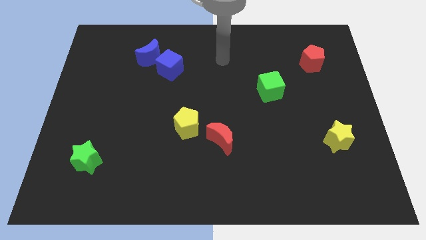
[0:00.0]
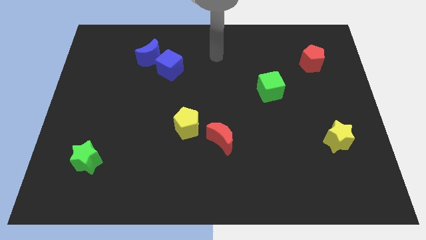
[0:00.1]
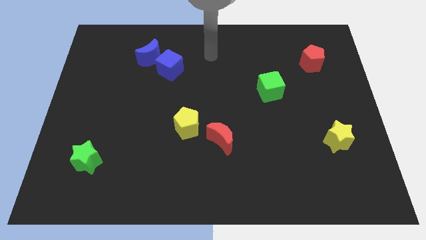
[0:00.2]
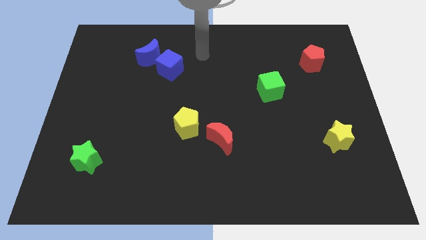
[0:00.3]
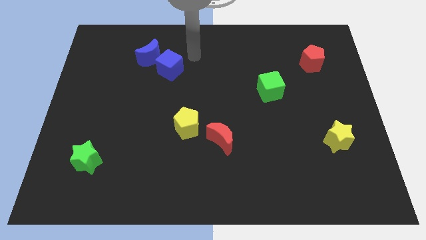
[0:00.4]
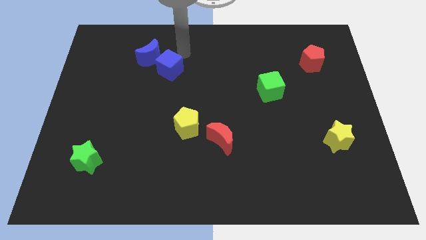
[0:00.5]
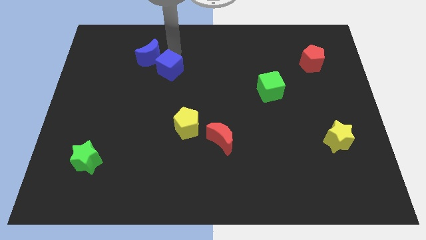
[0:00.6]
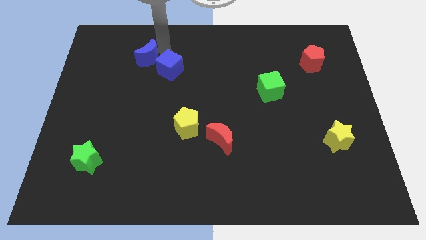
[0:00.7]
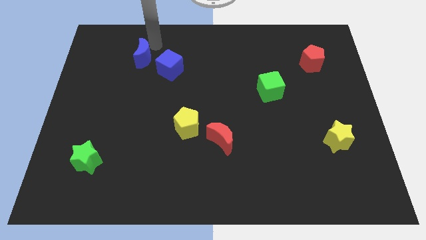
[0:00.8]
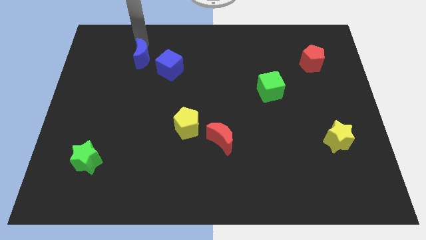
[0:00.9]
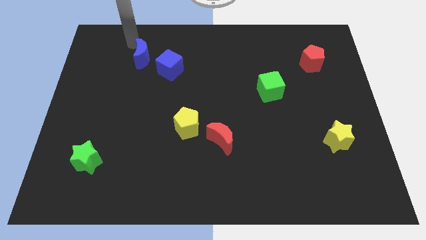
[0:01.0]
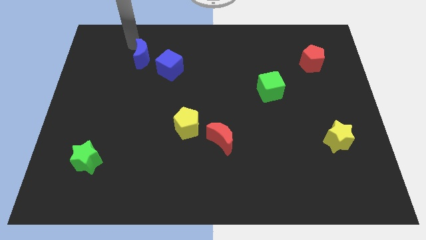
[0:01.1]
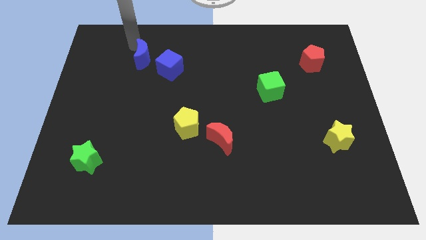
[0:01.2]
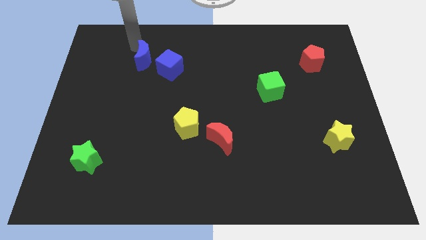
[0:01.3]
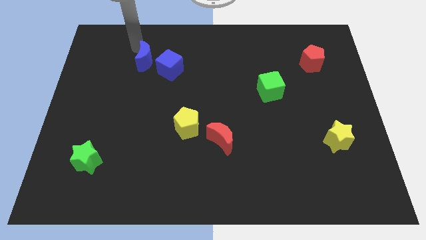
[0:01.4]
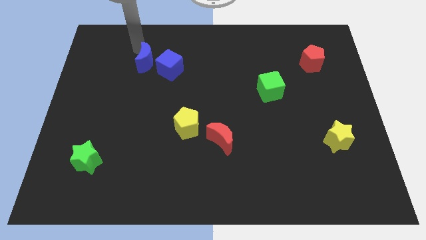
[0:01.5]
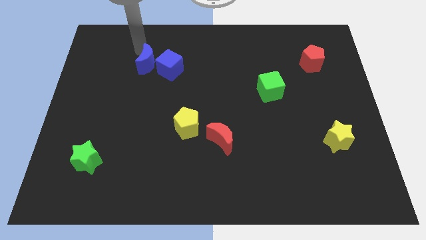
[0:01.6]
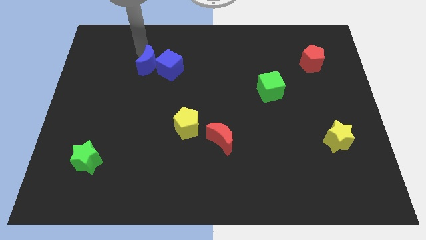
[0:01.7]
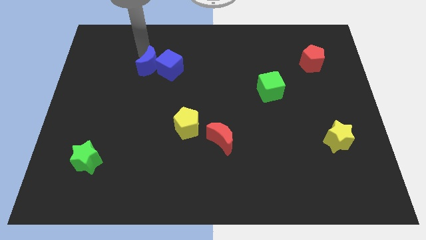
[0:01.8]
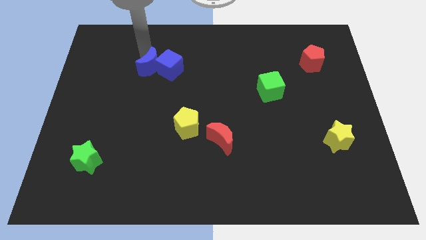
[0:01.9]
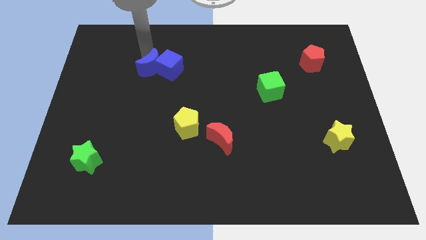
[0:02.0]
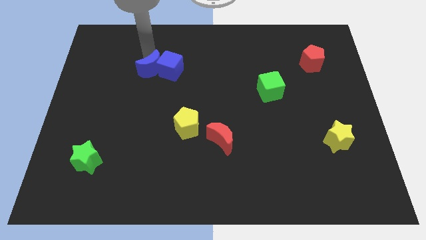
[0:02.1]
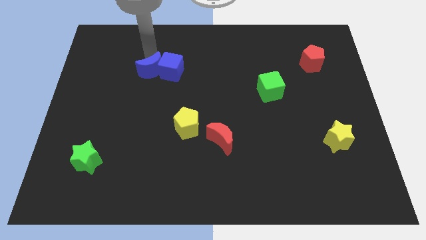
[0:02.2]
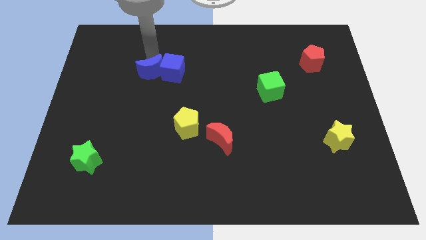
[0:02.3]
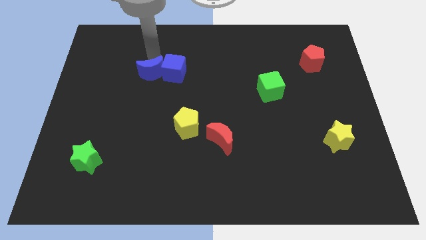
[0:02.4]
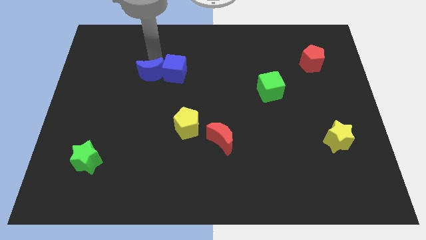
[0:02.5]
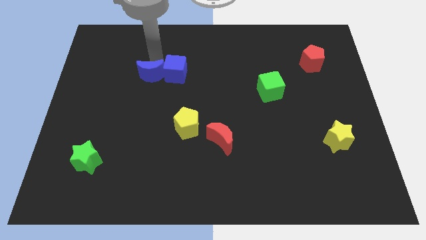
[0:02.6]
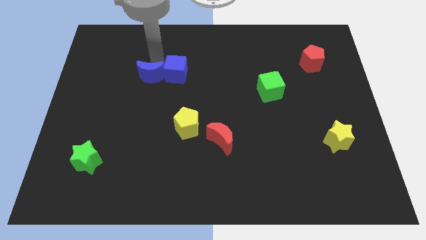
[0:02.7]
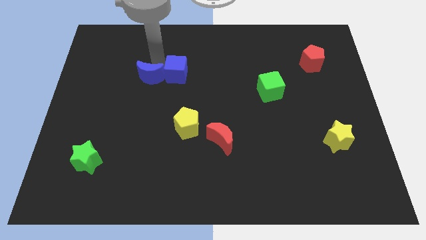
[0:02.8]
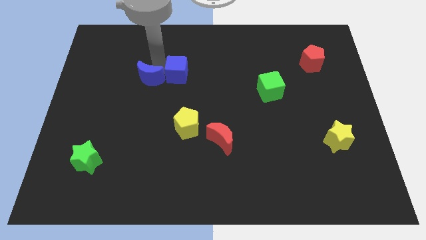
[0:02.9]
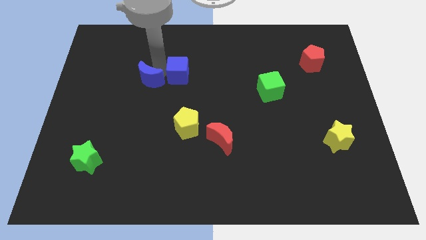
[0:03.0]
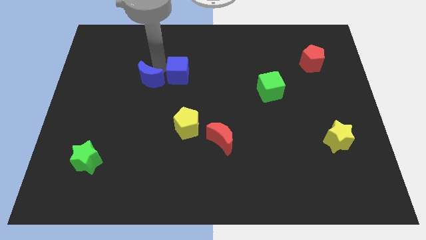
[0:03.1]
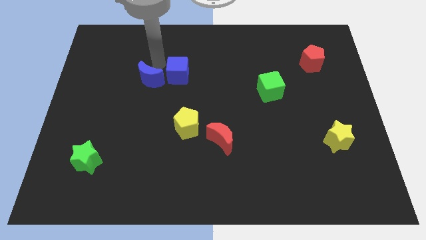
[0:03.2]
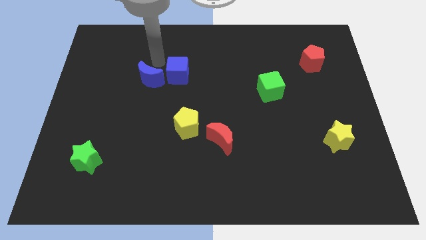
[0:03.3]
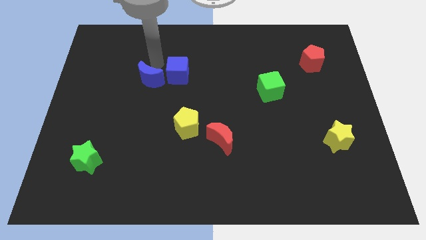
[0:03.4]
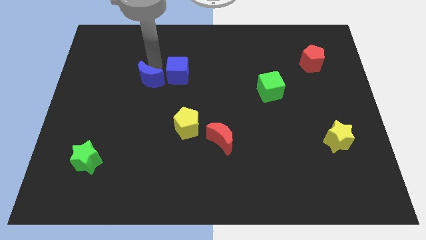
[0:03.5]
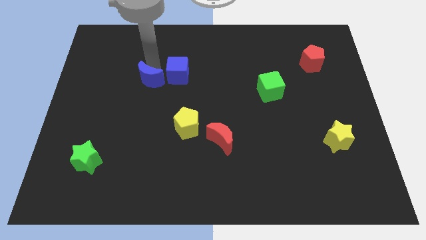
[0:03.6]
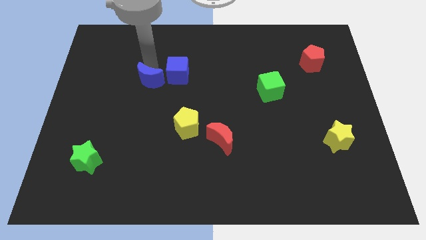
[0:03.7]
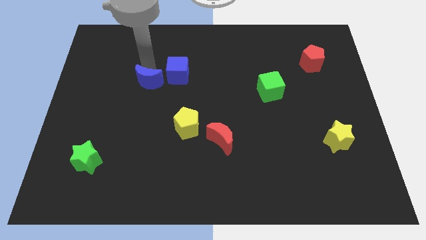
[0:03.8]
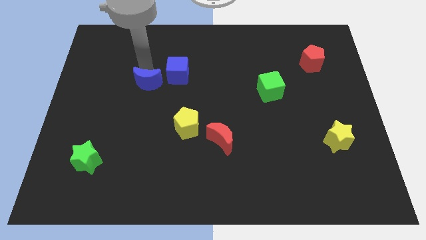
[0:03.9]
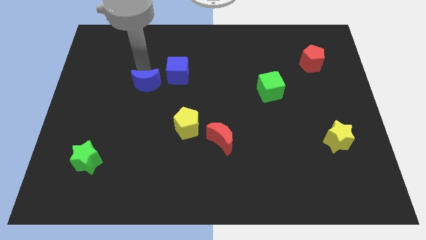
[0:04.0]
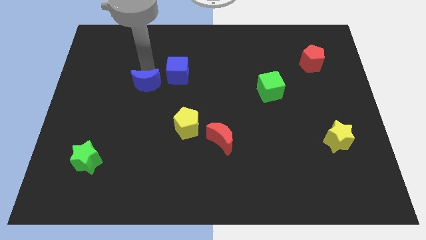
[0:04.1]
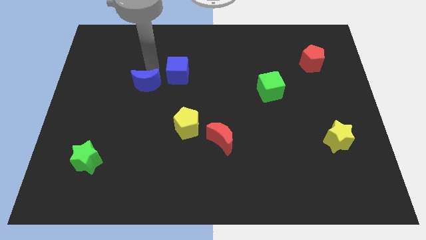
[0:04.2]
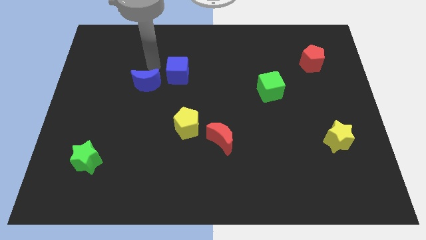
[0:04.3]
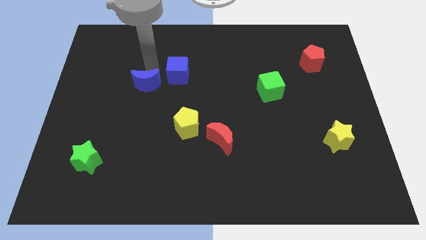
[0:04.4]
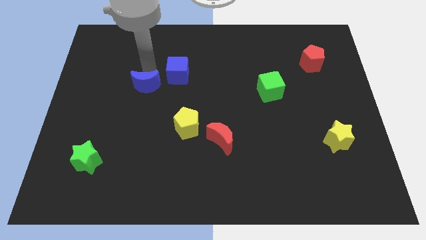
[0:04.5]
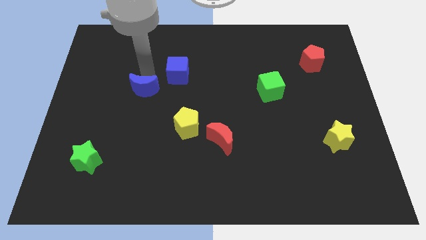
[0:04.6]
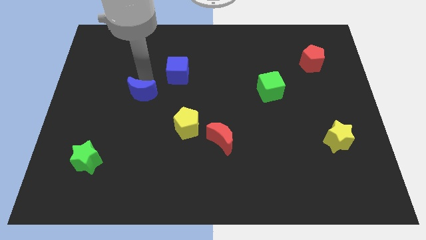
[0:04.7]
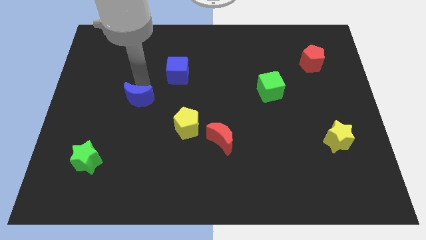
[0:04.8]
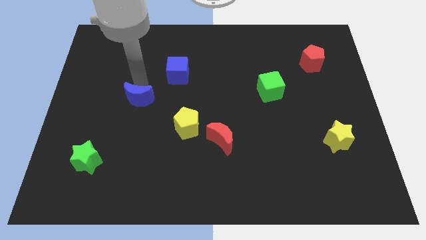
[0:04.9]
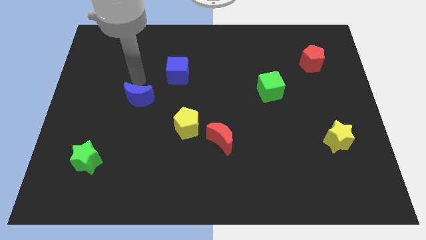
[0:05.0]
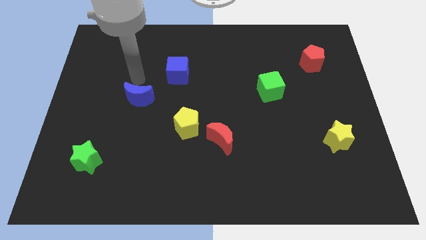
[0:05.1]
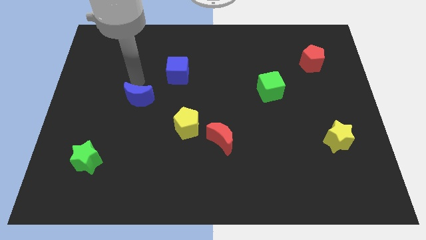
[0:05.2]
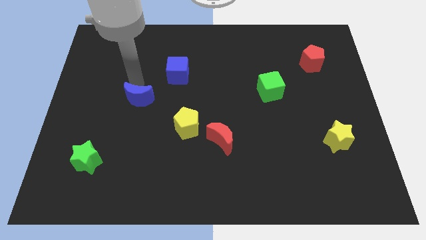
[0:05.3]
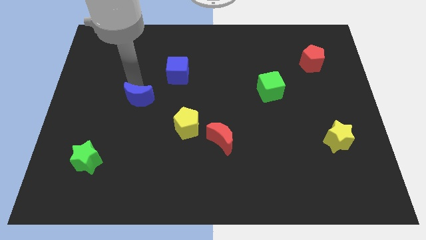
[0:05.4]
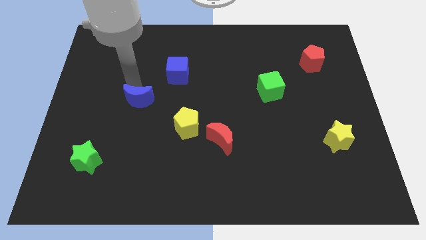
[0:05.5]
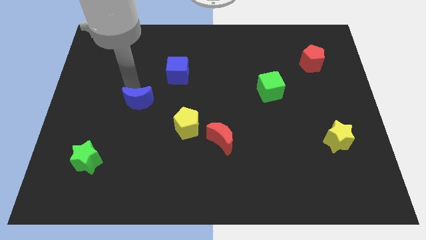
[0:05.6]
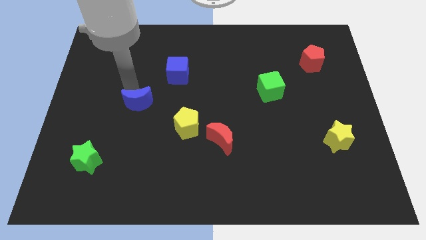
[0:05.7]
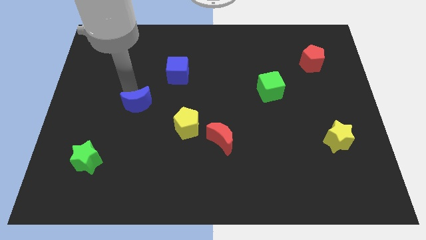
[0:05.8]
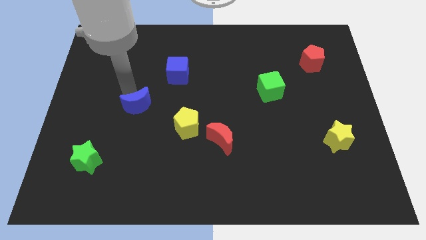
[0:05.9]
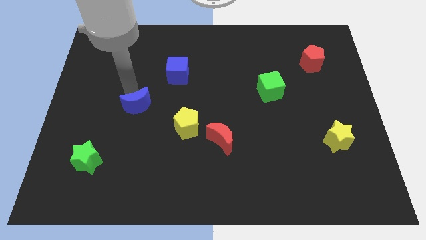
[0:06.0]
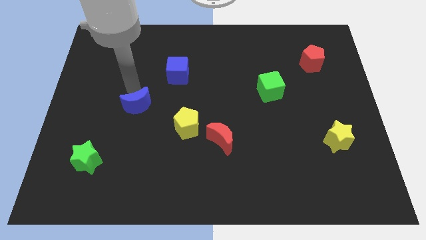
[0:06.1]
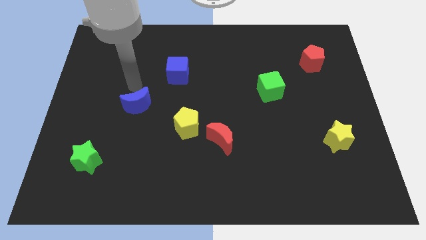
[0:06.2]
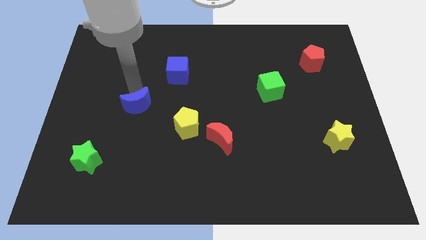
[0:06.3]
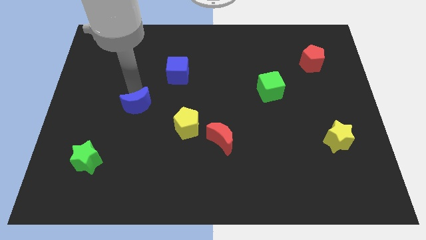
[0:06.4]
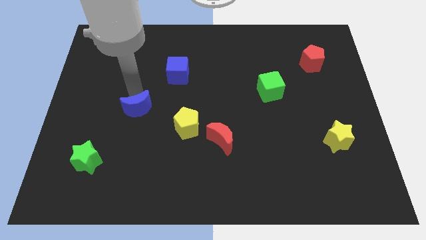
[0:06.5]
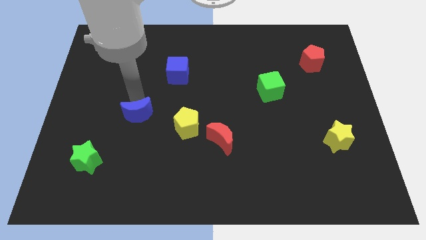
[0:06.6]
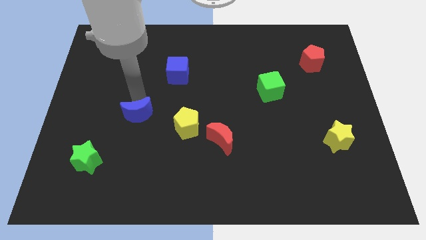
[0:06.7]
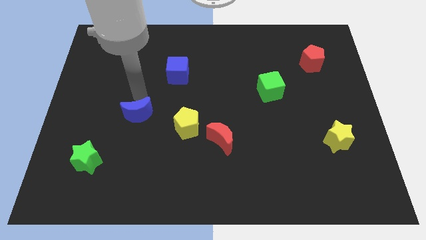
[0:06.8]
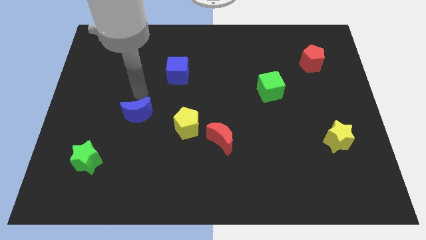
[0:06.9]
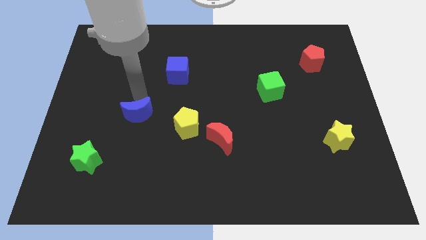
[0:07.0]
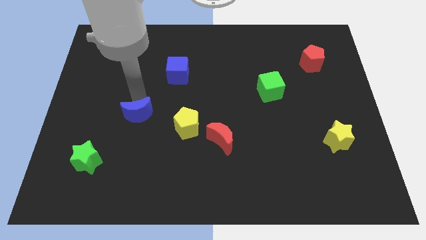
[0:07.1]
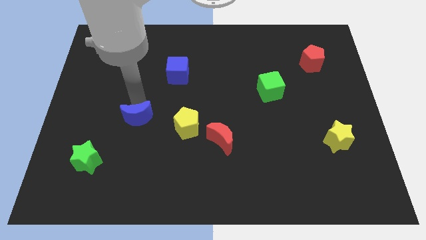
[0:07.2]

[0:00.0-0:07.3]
push the blue moon downwards

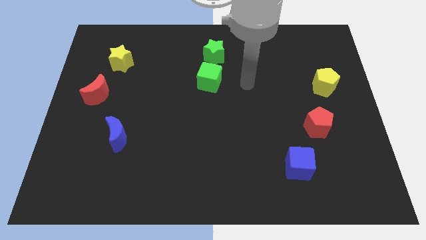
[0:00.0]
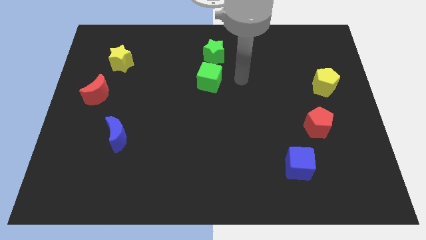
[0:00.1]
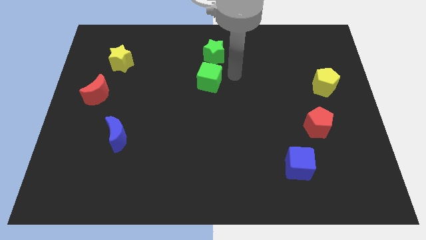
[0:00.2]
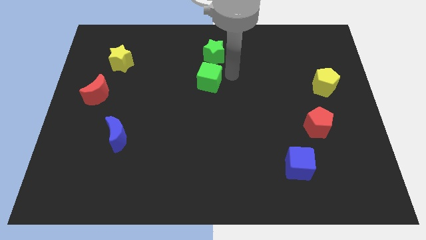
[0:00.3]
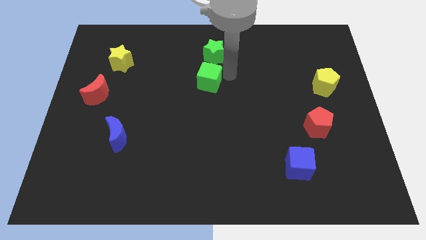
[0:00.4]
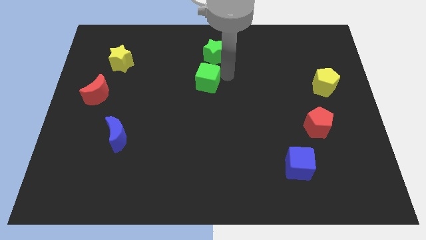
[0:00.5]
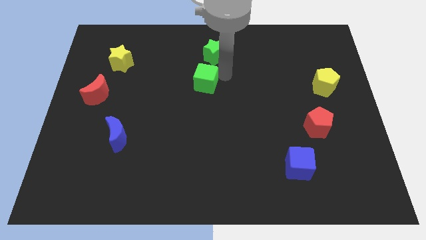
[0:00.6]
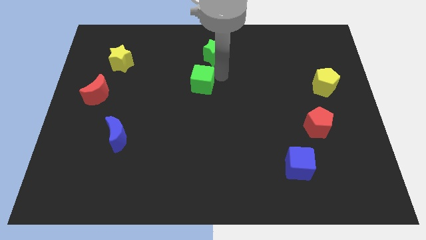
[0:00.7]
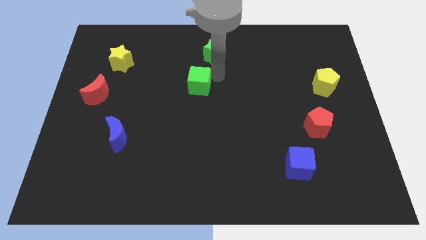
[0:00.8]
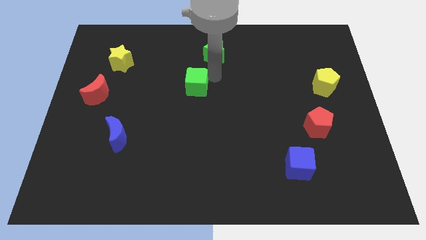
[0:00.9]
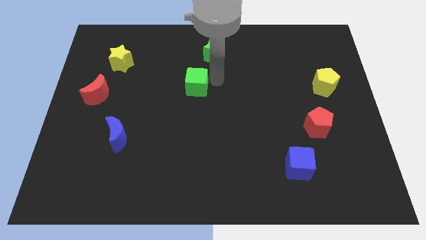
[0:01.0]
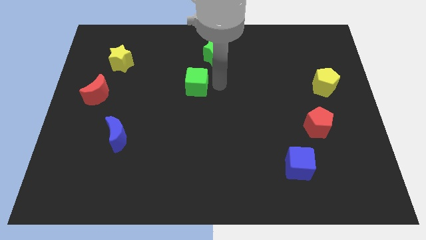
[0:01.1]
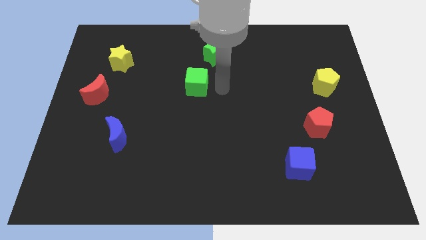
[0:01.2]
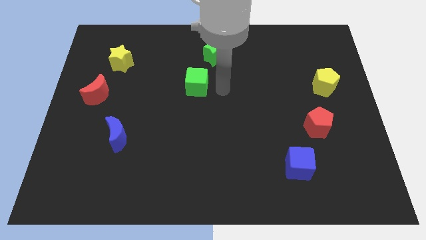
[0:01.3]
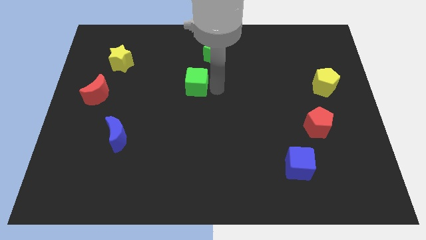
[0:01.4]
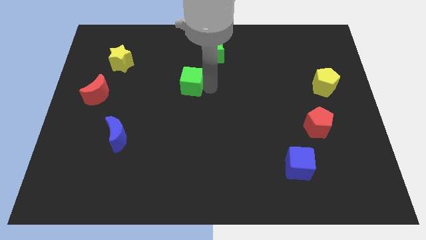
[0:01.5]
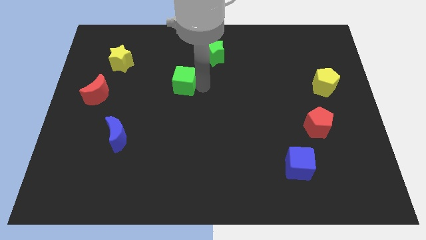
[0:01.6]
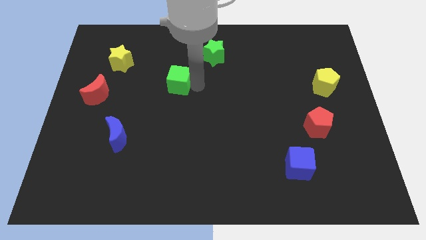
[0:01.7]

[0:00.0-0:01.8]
push the green cube slightly left
